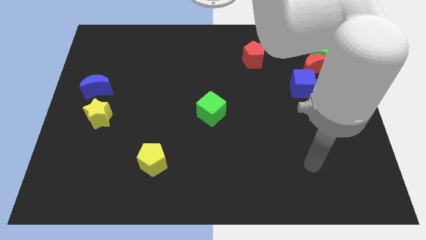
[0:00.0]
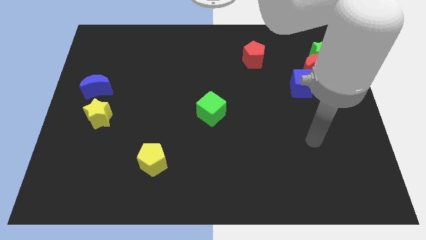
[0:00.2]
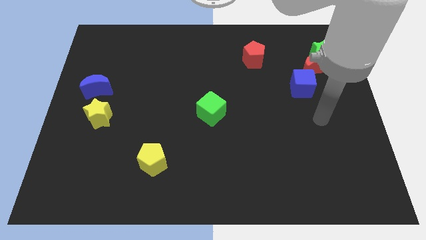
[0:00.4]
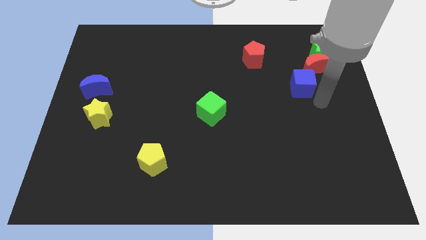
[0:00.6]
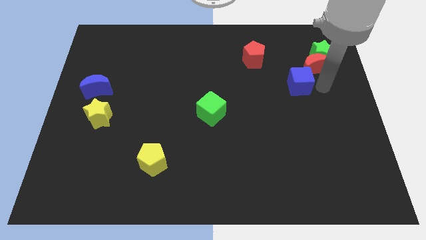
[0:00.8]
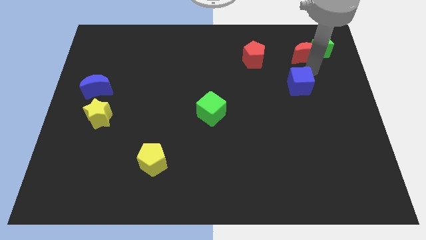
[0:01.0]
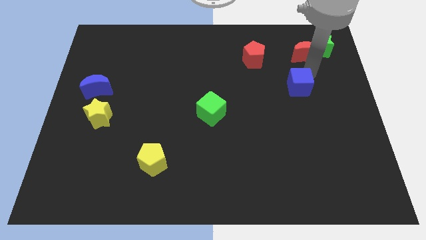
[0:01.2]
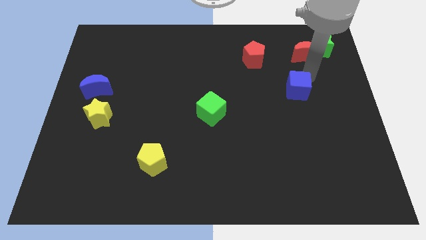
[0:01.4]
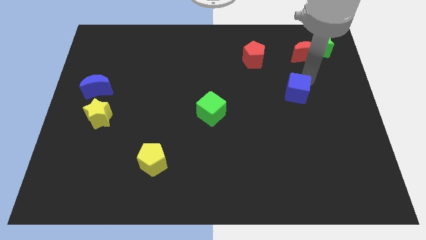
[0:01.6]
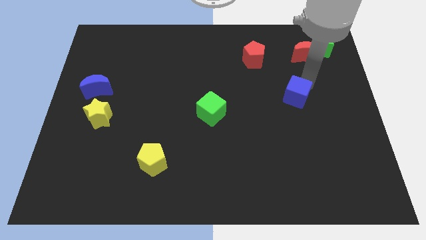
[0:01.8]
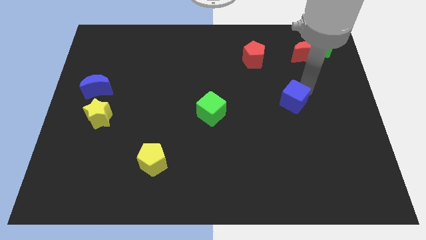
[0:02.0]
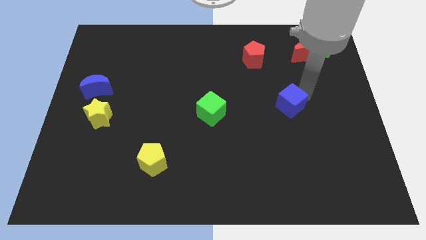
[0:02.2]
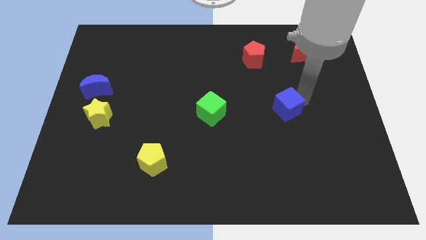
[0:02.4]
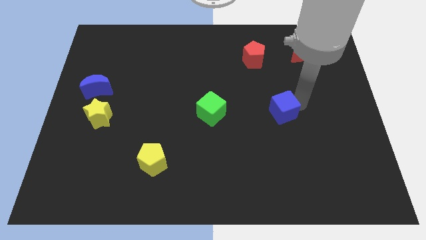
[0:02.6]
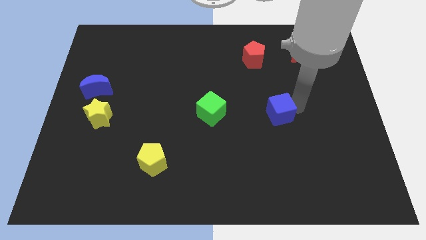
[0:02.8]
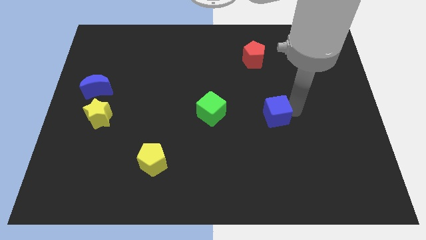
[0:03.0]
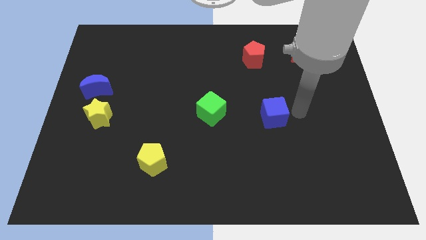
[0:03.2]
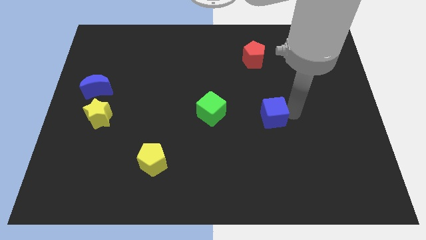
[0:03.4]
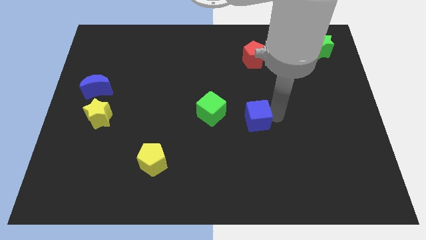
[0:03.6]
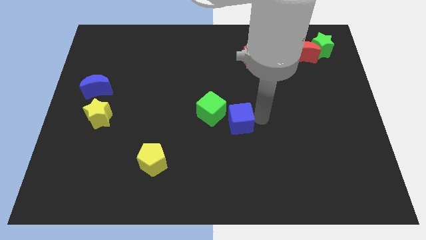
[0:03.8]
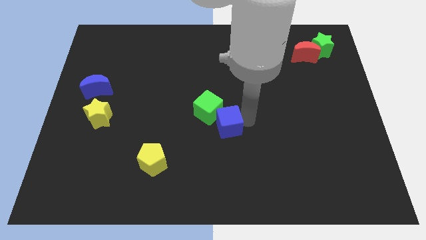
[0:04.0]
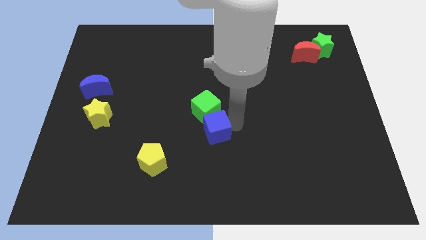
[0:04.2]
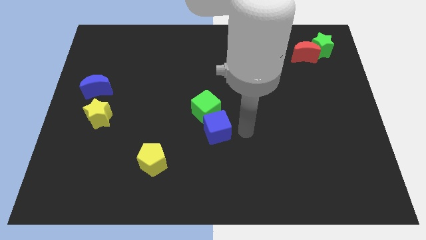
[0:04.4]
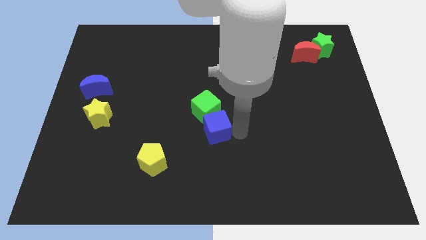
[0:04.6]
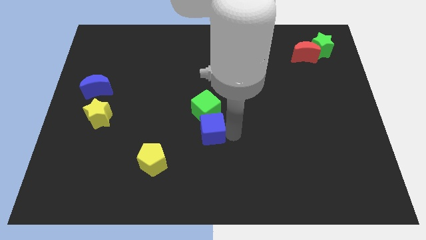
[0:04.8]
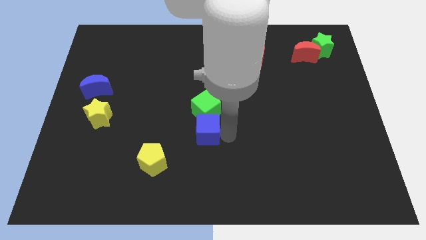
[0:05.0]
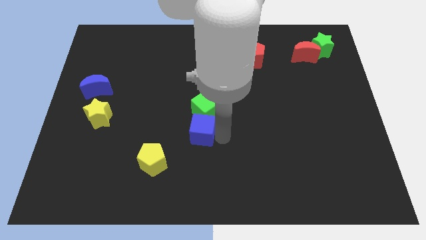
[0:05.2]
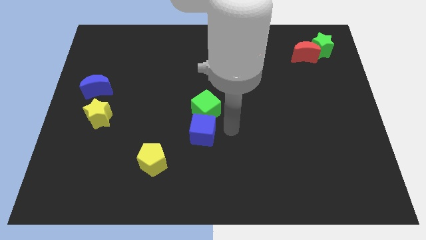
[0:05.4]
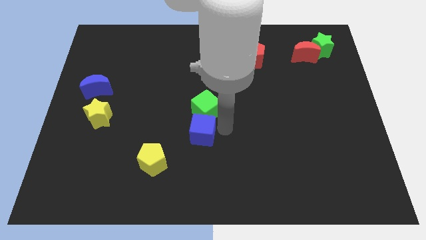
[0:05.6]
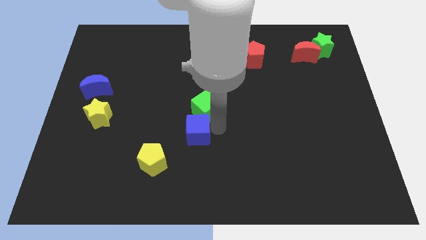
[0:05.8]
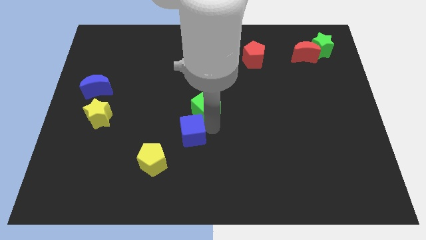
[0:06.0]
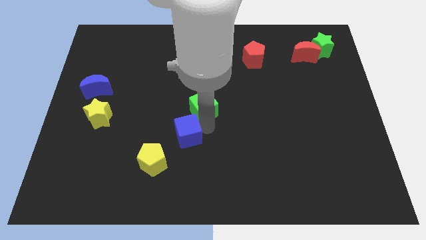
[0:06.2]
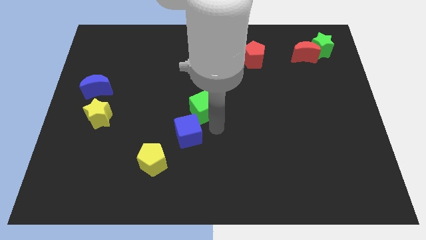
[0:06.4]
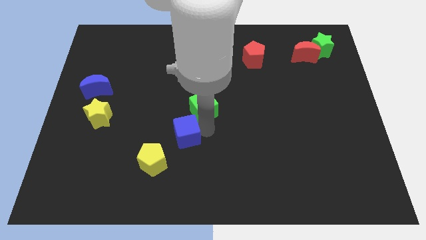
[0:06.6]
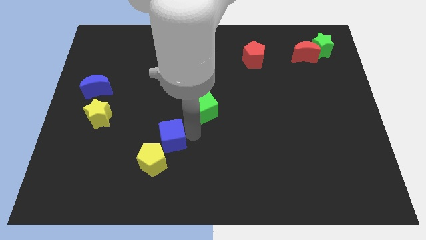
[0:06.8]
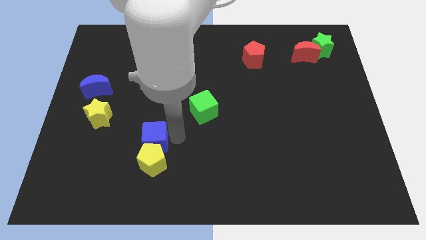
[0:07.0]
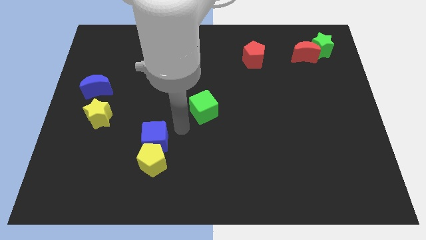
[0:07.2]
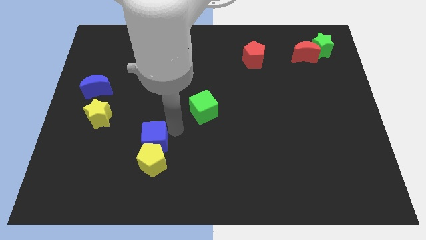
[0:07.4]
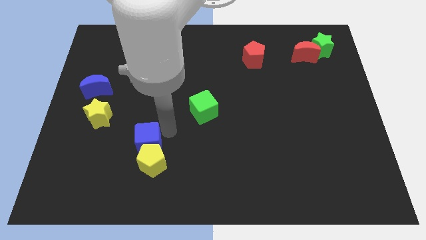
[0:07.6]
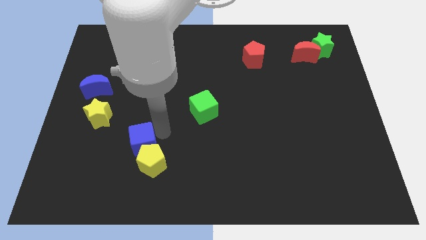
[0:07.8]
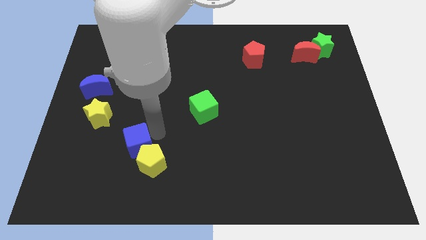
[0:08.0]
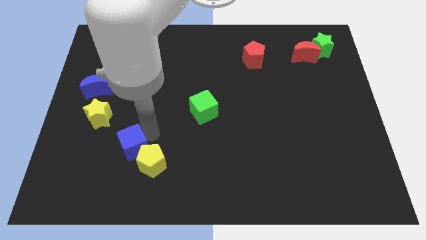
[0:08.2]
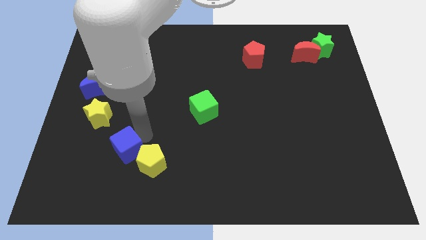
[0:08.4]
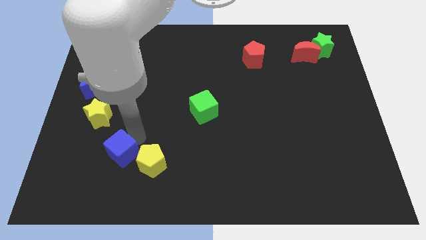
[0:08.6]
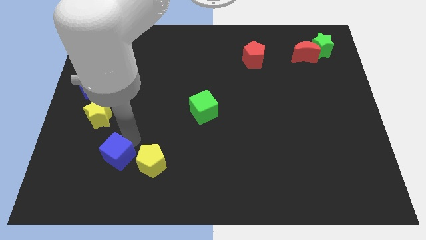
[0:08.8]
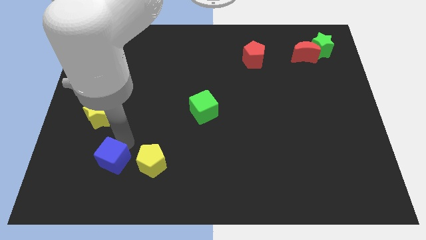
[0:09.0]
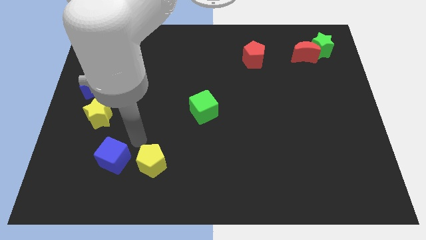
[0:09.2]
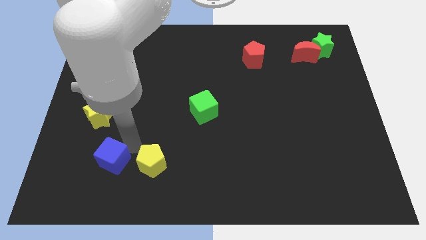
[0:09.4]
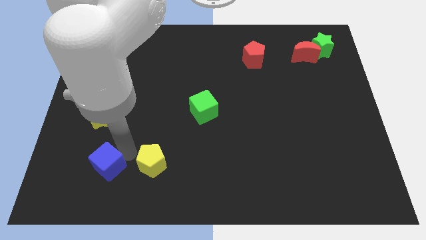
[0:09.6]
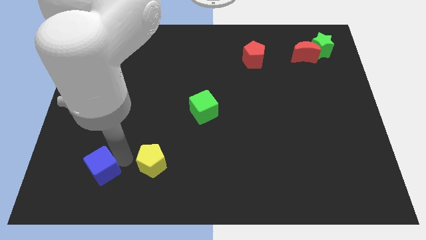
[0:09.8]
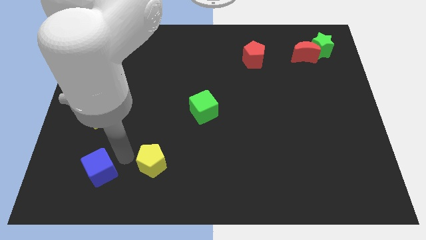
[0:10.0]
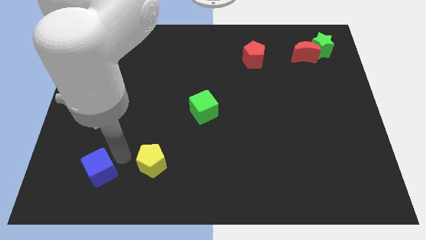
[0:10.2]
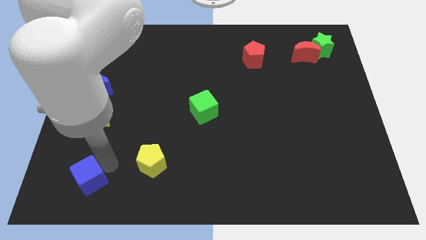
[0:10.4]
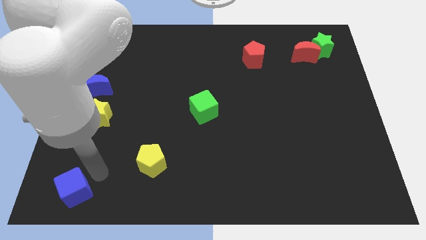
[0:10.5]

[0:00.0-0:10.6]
move the blue cube to the bottom left corner

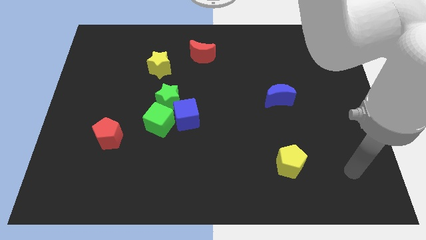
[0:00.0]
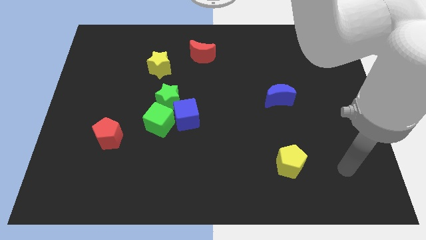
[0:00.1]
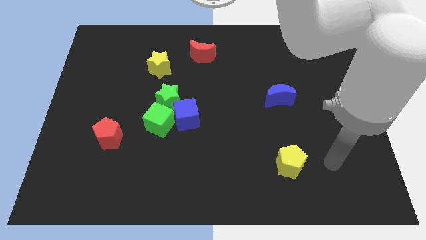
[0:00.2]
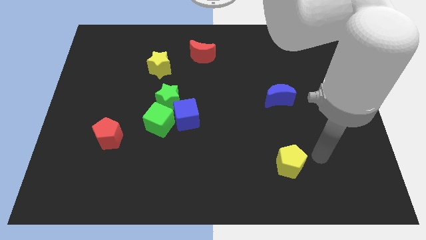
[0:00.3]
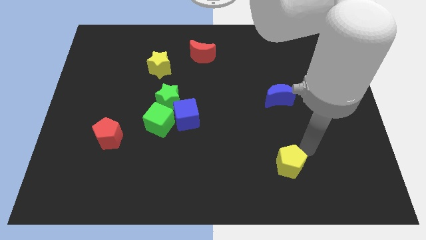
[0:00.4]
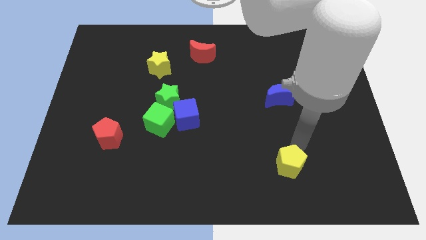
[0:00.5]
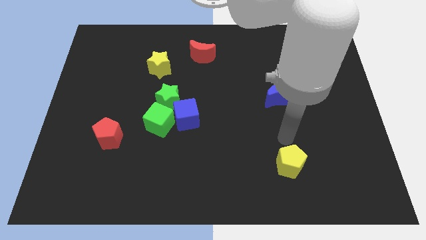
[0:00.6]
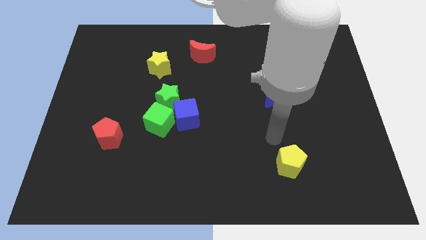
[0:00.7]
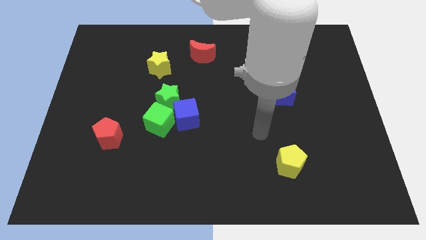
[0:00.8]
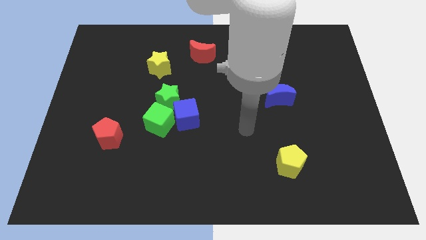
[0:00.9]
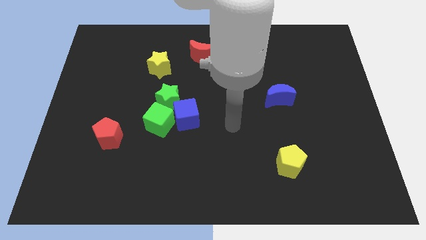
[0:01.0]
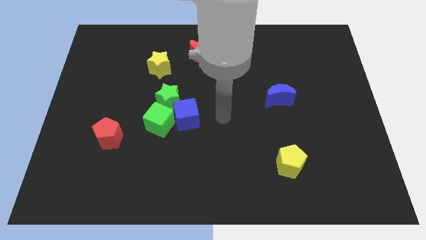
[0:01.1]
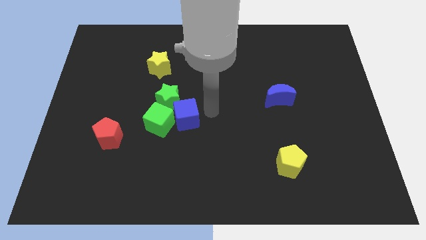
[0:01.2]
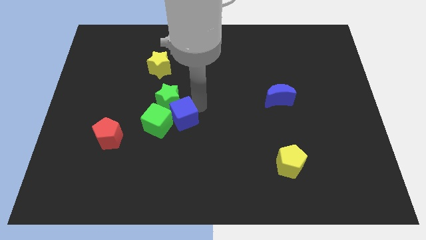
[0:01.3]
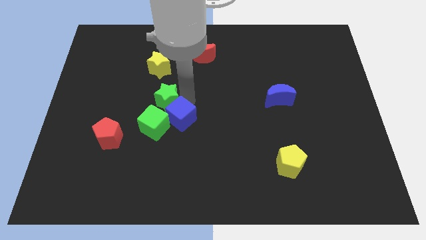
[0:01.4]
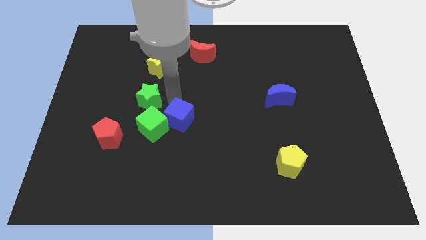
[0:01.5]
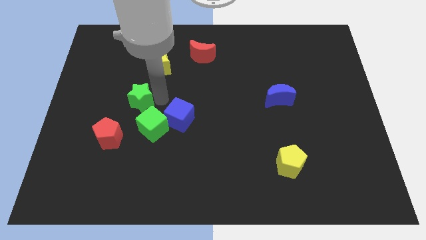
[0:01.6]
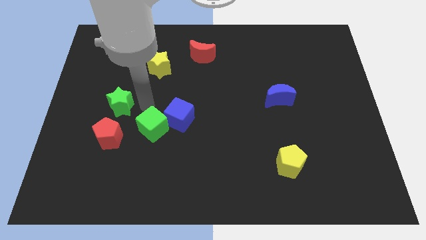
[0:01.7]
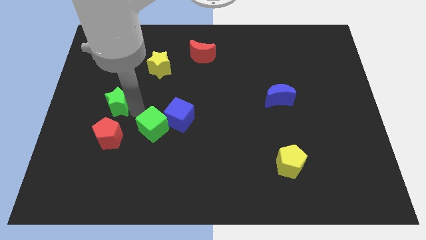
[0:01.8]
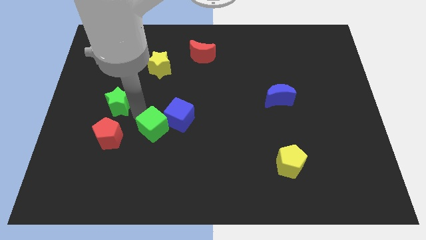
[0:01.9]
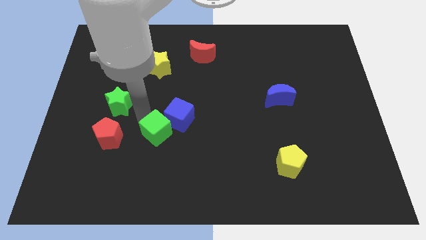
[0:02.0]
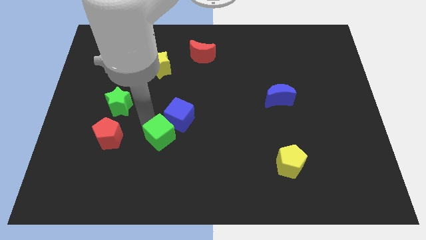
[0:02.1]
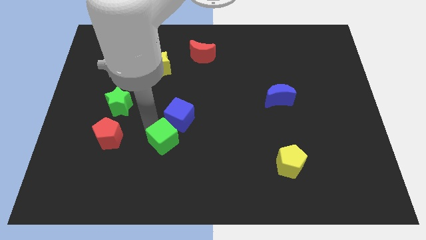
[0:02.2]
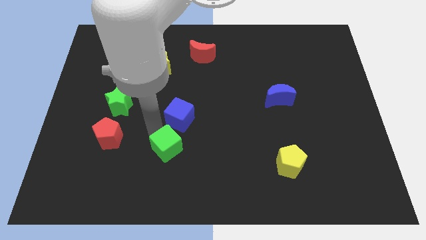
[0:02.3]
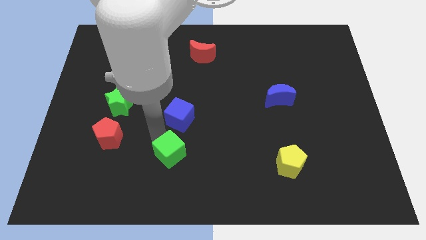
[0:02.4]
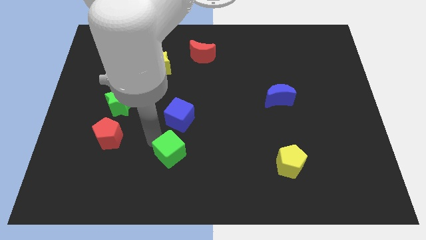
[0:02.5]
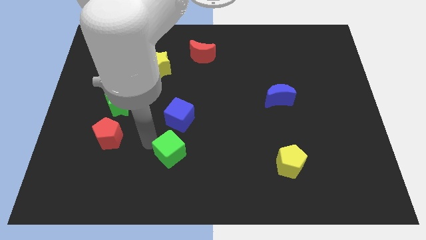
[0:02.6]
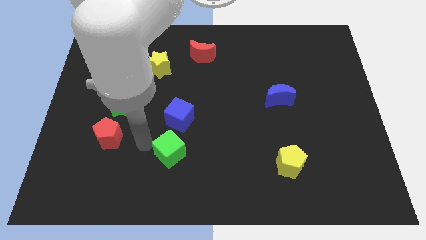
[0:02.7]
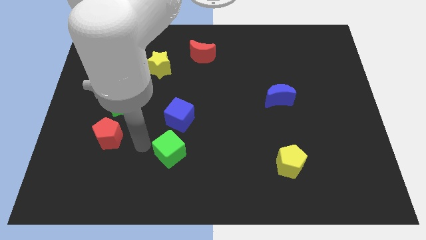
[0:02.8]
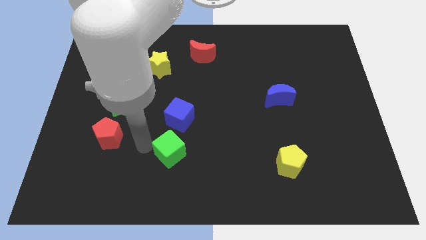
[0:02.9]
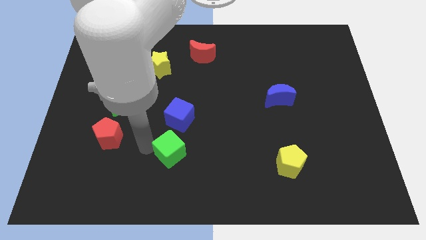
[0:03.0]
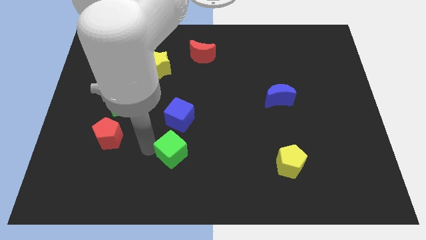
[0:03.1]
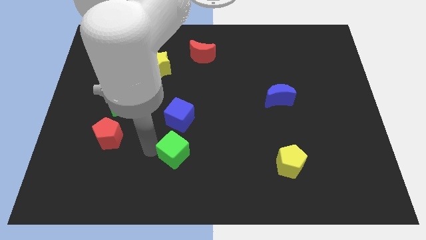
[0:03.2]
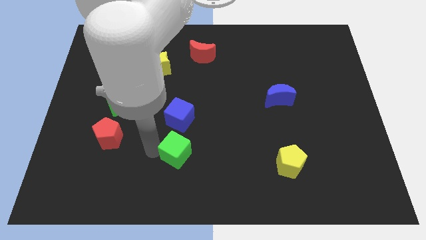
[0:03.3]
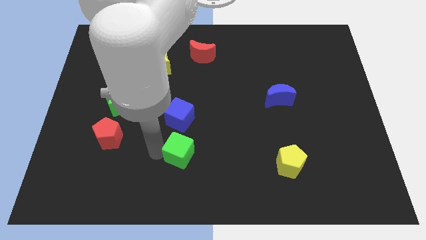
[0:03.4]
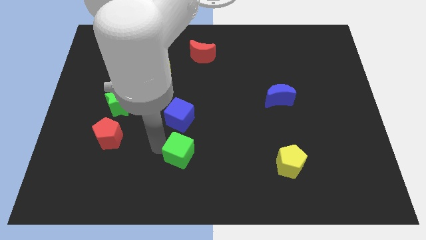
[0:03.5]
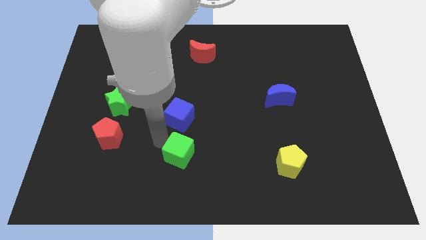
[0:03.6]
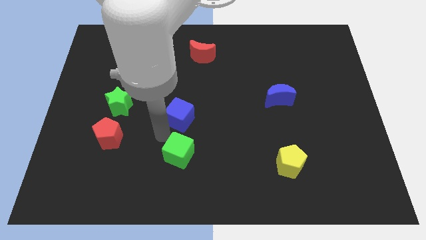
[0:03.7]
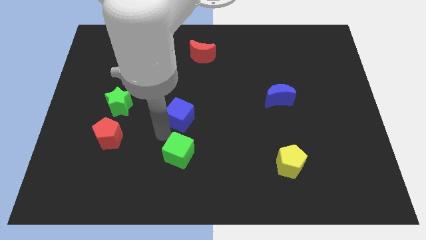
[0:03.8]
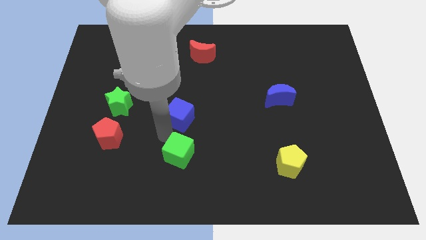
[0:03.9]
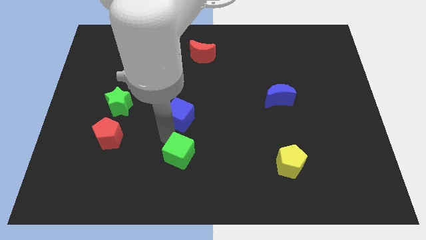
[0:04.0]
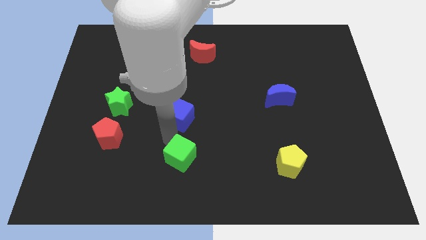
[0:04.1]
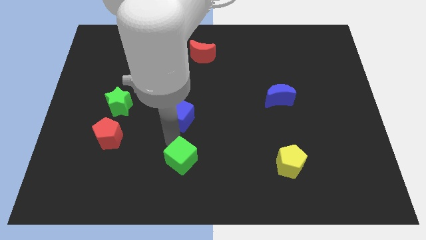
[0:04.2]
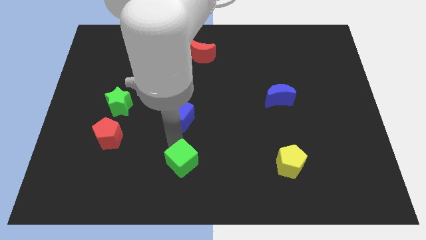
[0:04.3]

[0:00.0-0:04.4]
slide the green cube to the bottom
